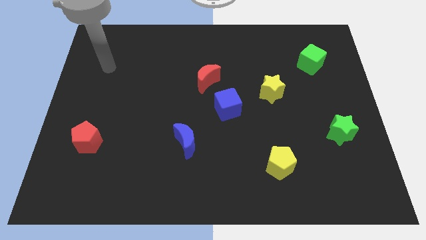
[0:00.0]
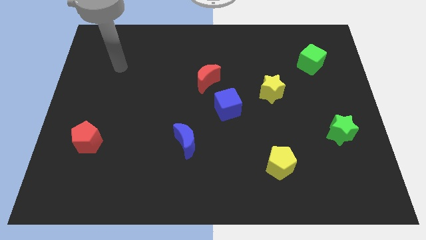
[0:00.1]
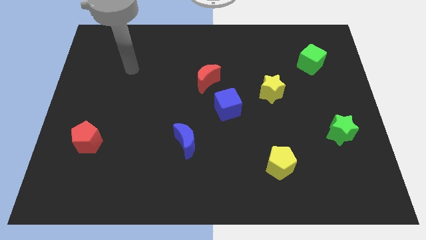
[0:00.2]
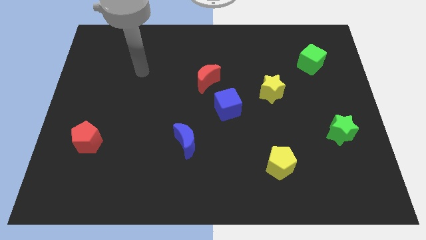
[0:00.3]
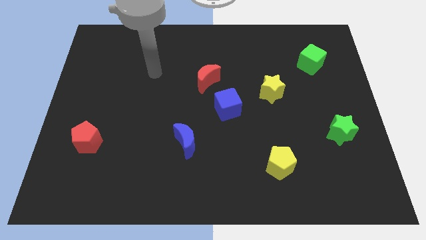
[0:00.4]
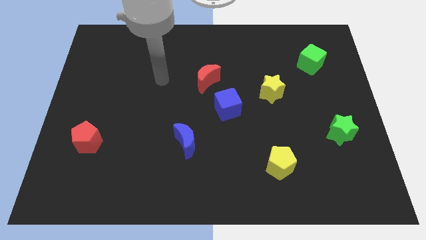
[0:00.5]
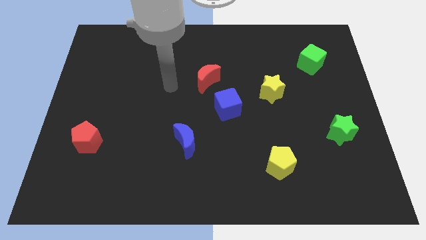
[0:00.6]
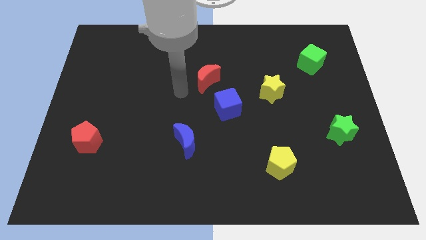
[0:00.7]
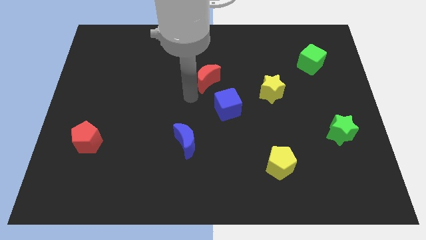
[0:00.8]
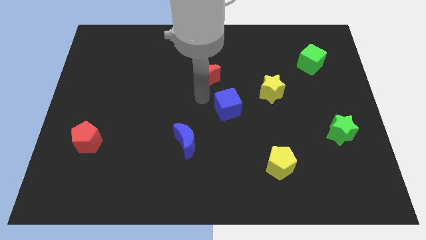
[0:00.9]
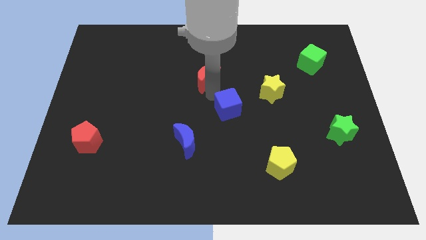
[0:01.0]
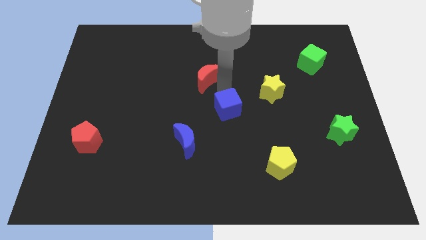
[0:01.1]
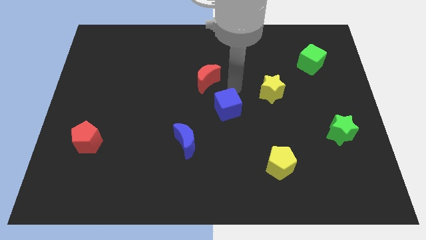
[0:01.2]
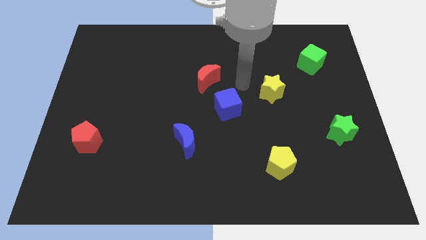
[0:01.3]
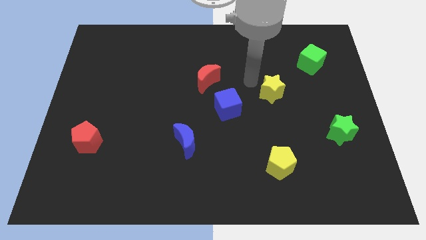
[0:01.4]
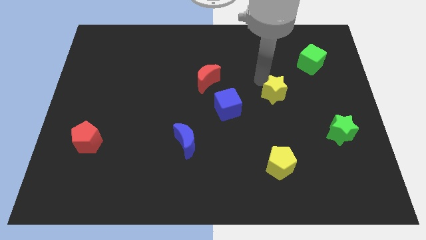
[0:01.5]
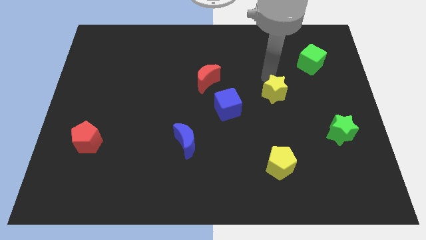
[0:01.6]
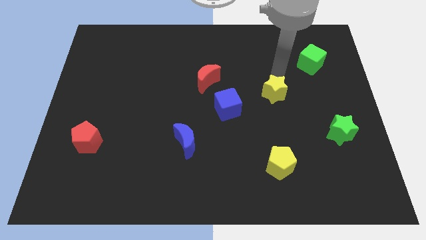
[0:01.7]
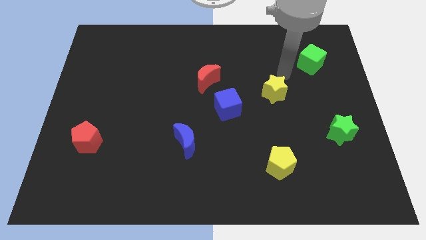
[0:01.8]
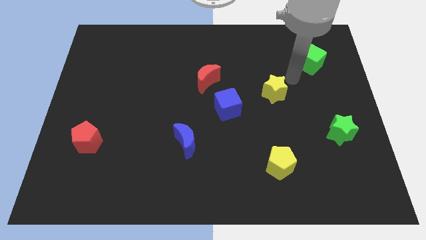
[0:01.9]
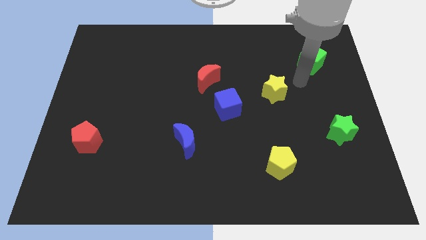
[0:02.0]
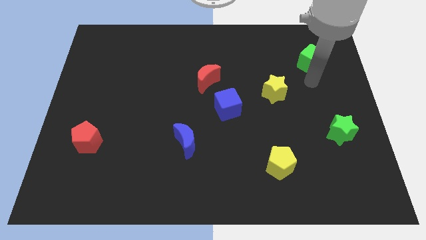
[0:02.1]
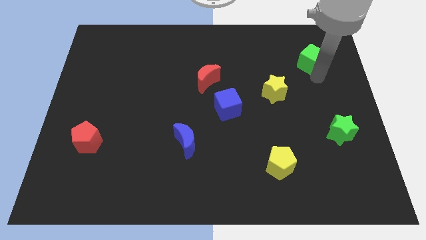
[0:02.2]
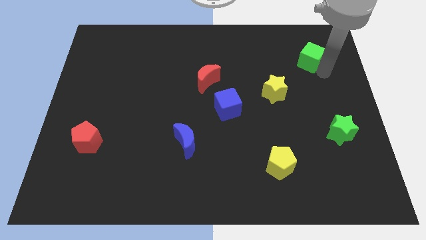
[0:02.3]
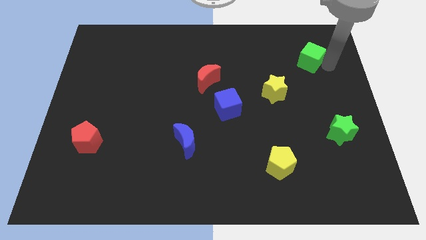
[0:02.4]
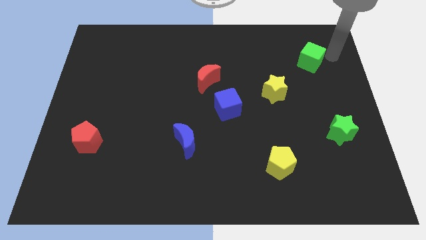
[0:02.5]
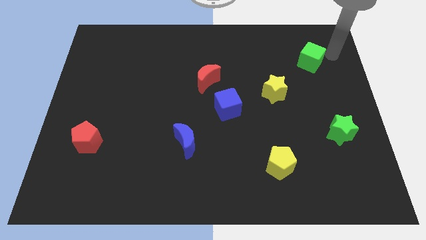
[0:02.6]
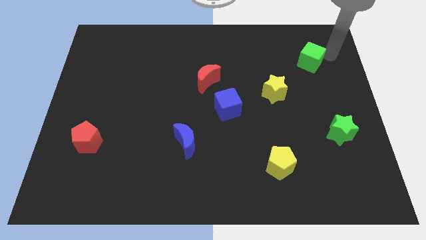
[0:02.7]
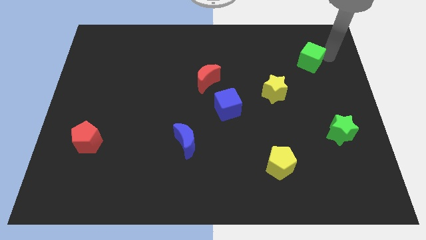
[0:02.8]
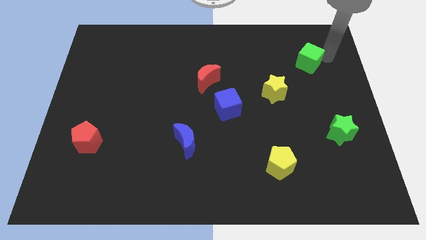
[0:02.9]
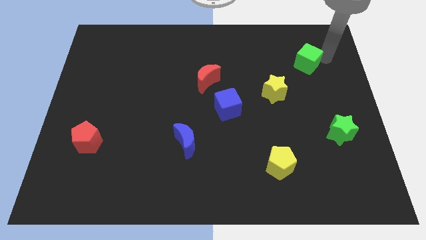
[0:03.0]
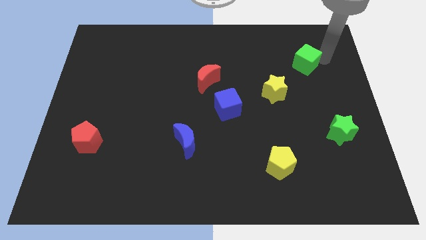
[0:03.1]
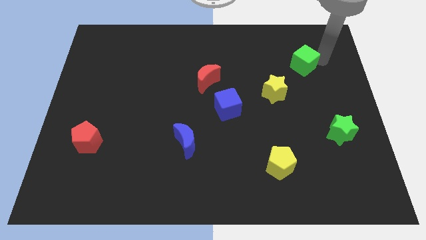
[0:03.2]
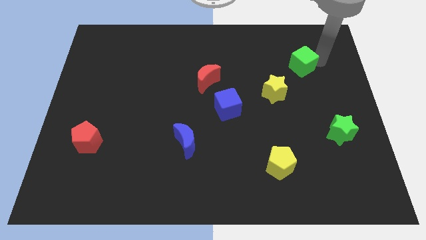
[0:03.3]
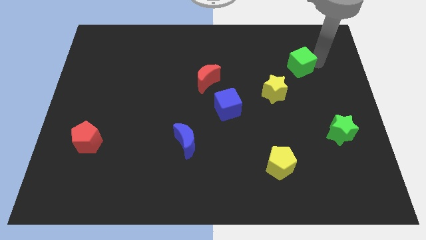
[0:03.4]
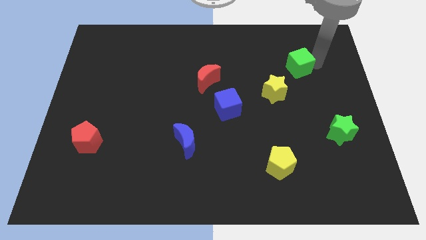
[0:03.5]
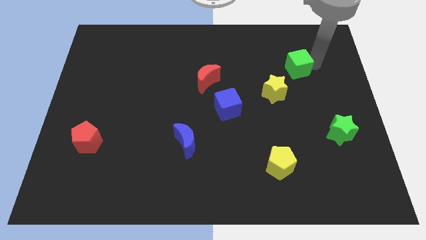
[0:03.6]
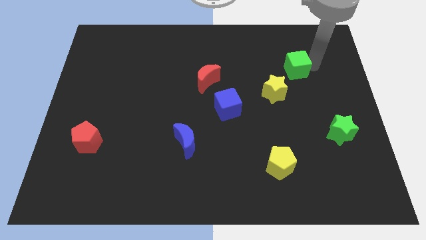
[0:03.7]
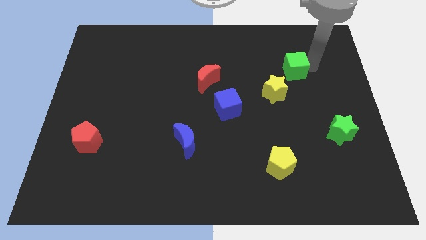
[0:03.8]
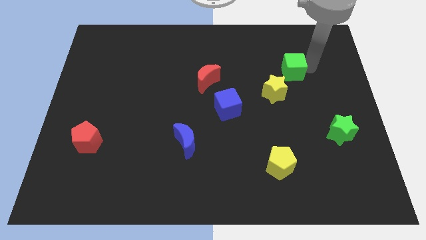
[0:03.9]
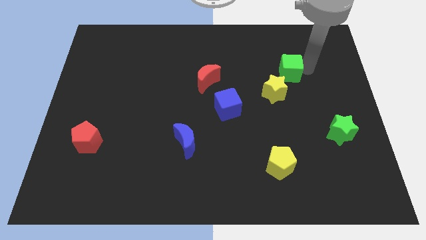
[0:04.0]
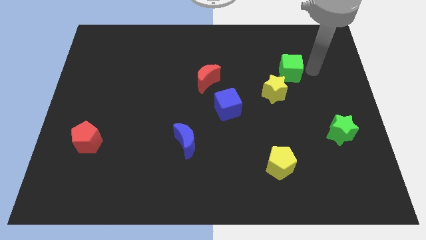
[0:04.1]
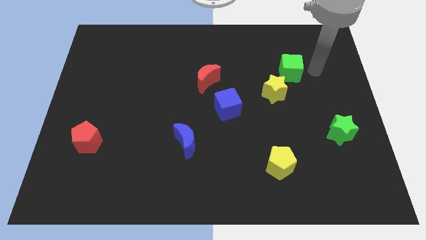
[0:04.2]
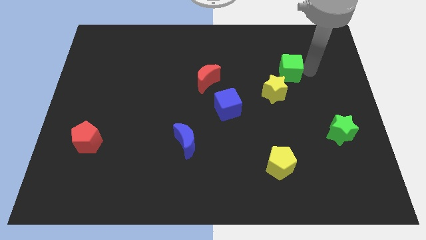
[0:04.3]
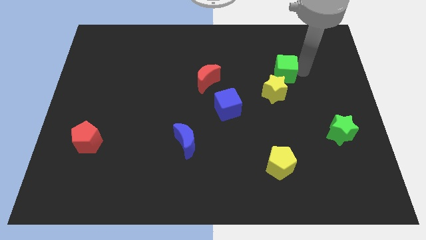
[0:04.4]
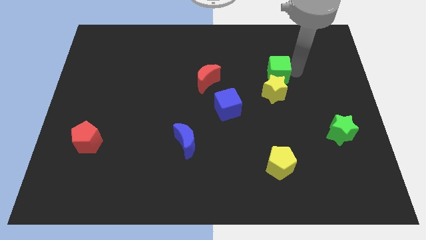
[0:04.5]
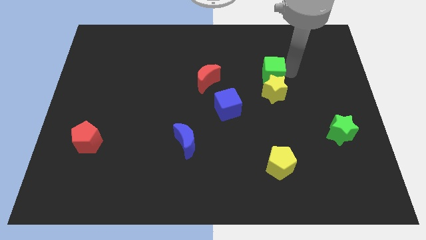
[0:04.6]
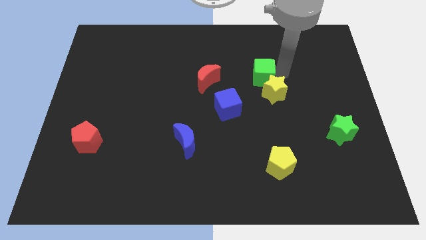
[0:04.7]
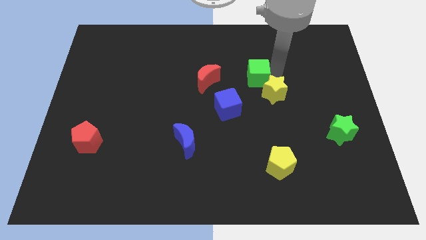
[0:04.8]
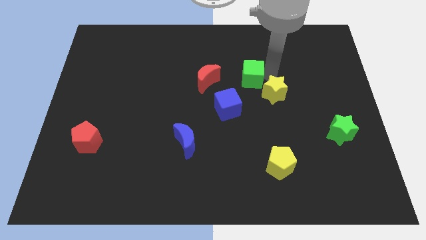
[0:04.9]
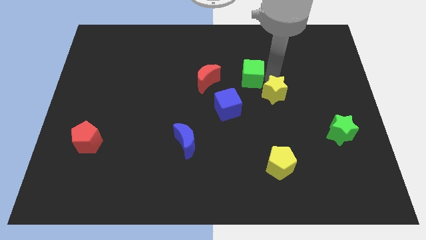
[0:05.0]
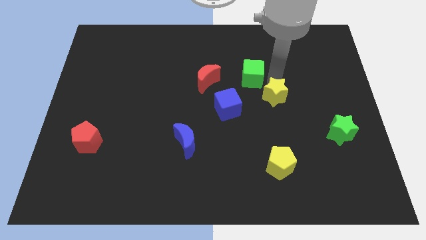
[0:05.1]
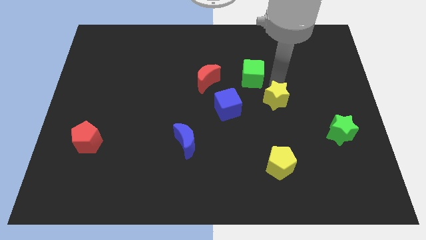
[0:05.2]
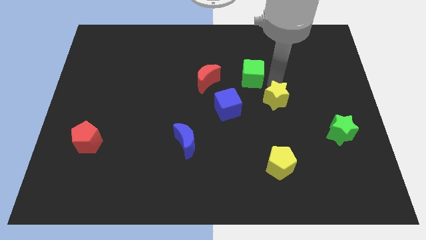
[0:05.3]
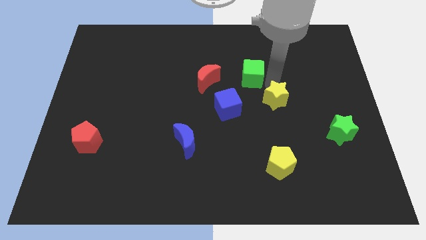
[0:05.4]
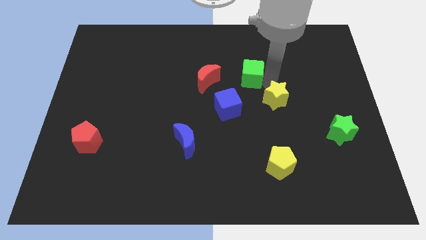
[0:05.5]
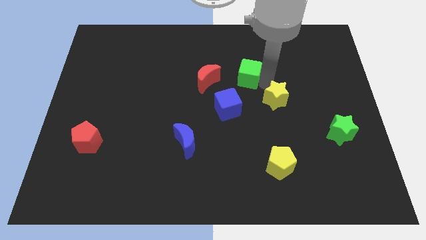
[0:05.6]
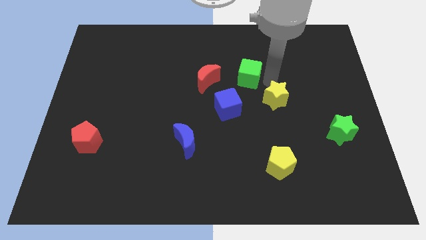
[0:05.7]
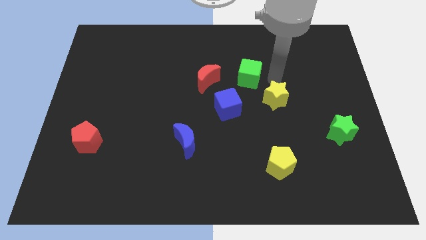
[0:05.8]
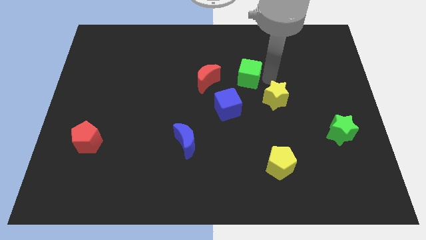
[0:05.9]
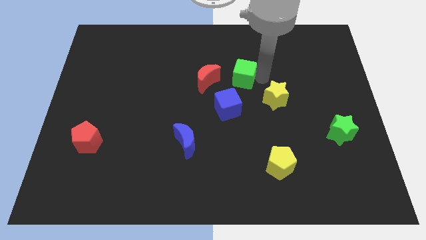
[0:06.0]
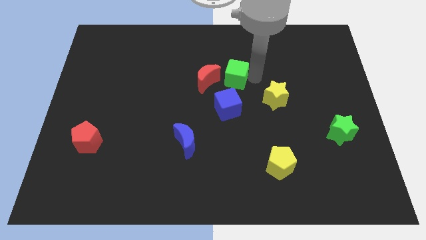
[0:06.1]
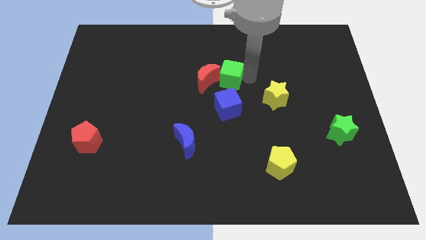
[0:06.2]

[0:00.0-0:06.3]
push the green cube next to the red moon
